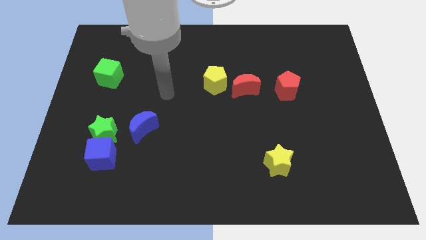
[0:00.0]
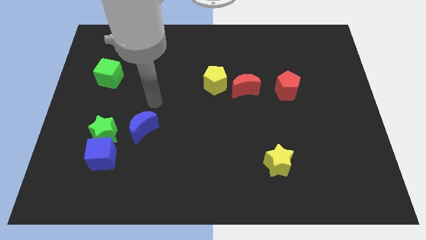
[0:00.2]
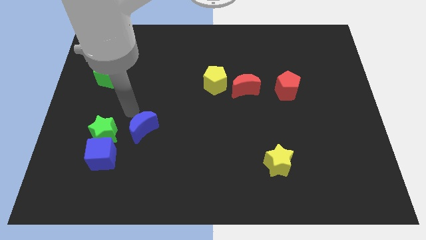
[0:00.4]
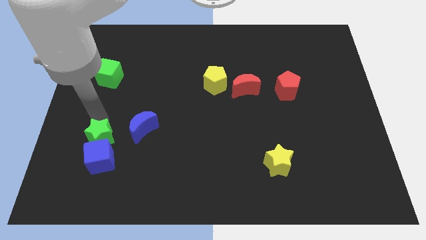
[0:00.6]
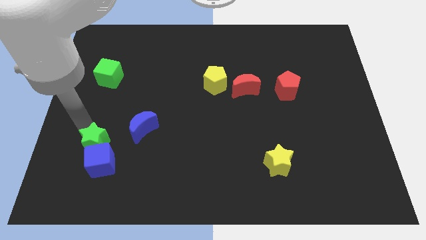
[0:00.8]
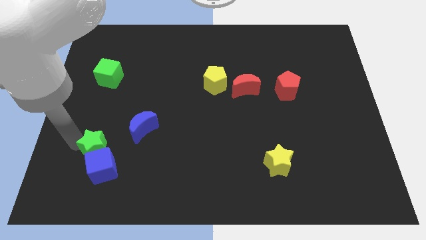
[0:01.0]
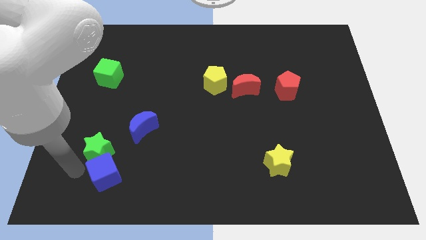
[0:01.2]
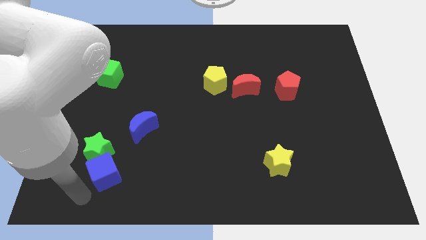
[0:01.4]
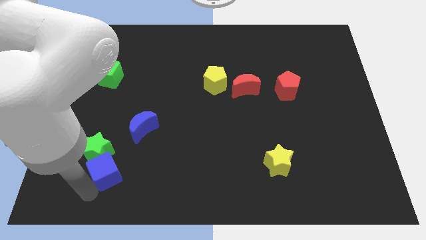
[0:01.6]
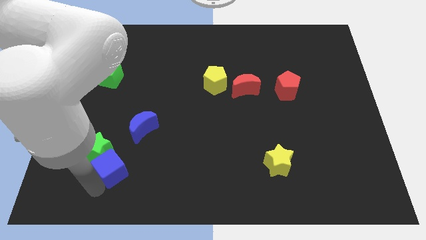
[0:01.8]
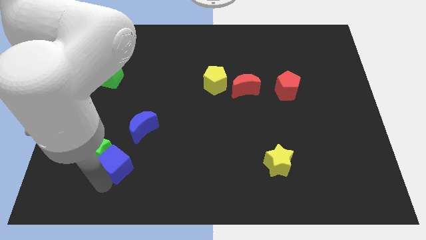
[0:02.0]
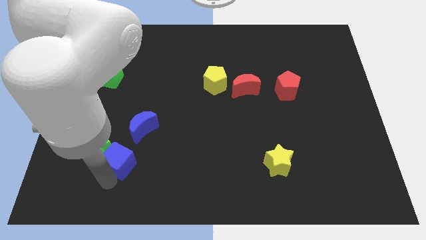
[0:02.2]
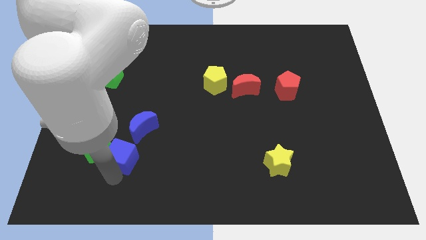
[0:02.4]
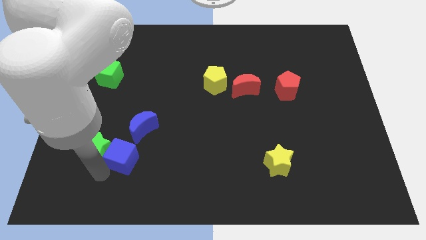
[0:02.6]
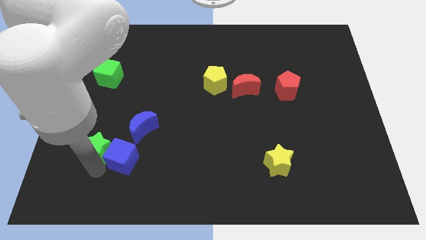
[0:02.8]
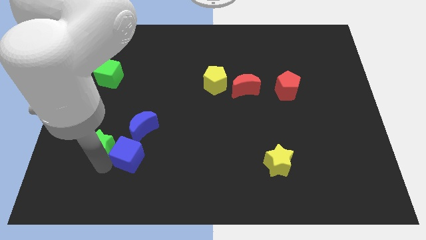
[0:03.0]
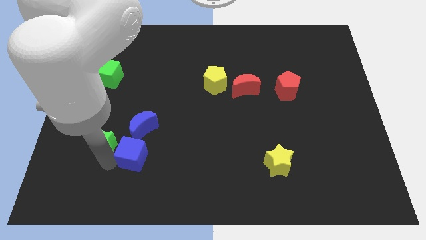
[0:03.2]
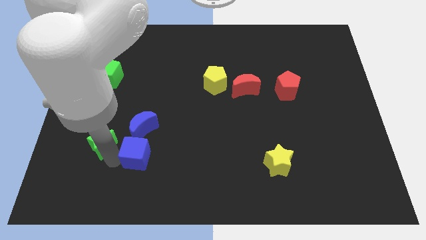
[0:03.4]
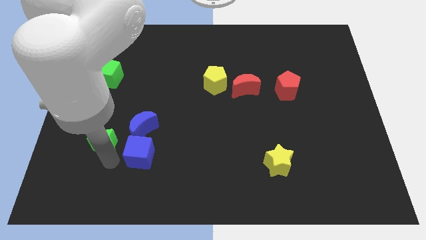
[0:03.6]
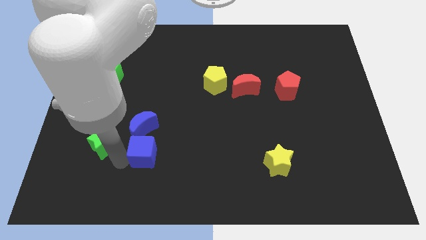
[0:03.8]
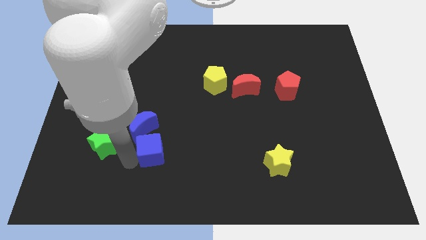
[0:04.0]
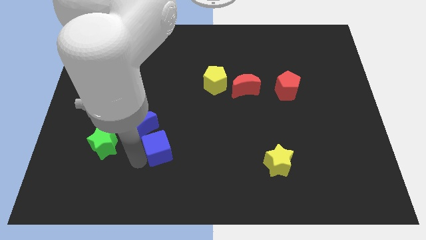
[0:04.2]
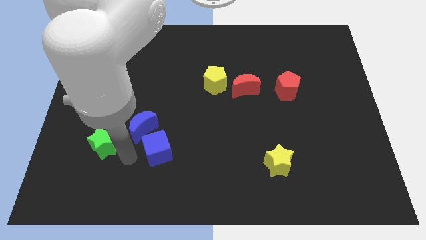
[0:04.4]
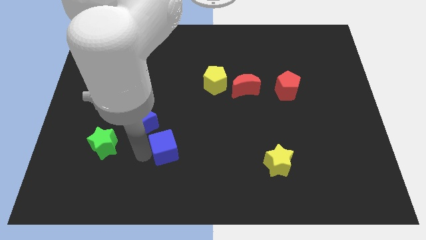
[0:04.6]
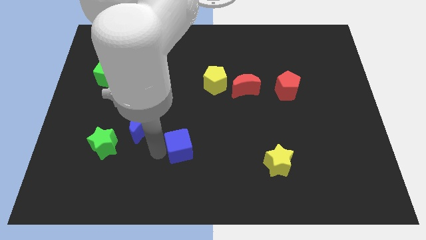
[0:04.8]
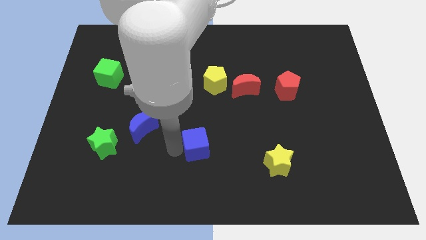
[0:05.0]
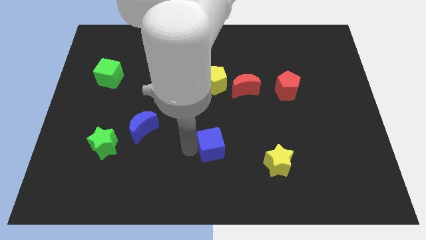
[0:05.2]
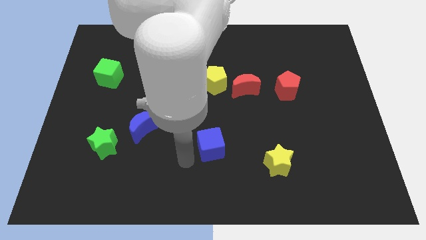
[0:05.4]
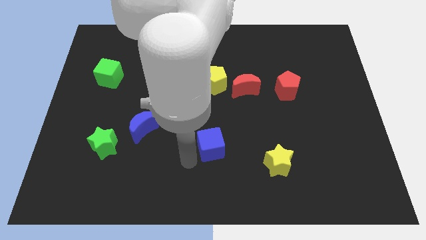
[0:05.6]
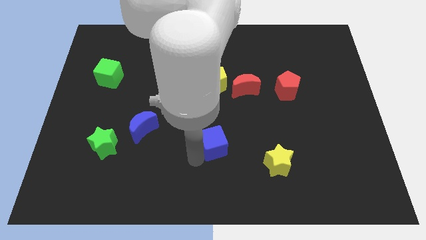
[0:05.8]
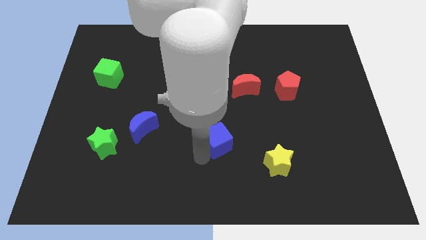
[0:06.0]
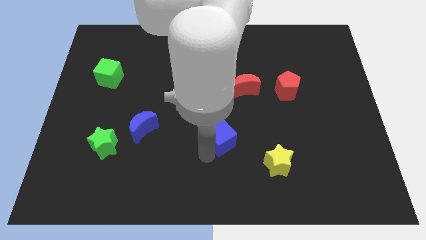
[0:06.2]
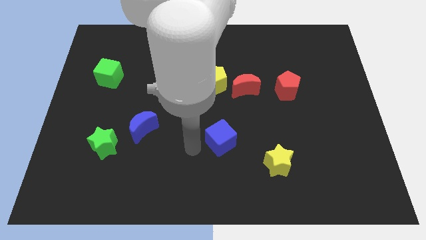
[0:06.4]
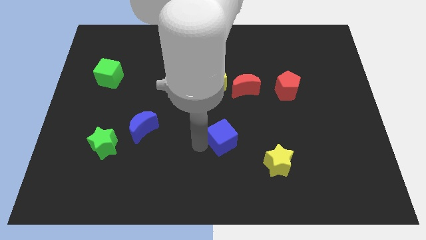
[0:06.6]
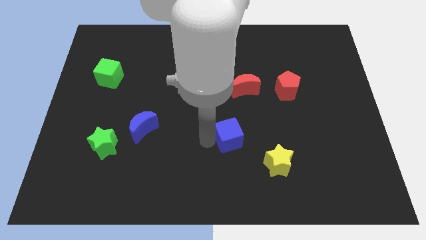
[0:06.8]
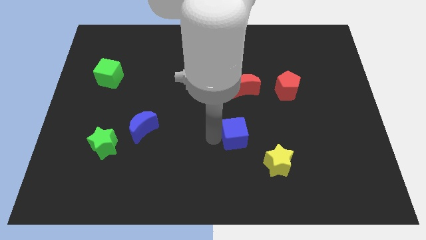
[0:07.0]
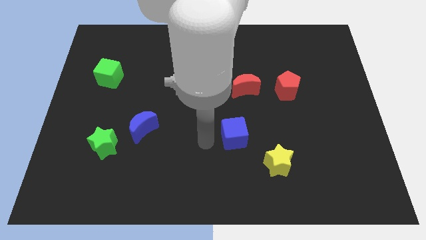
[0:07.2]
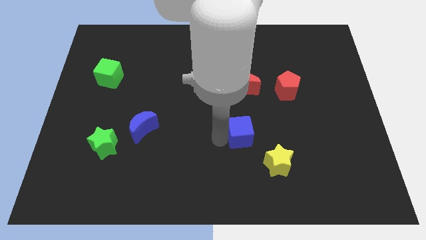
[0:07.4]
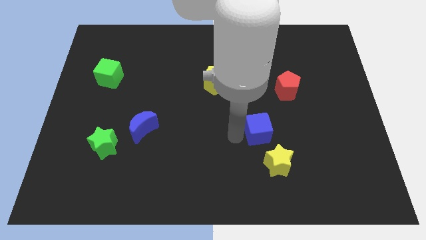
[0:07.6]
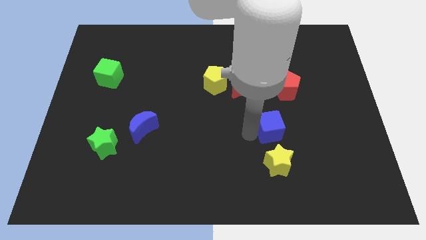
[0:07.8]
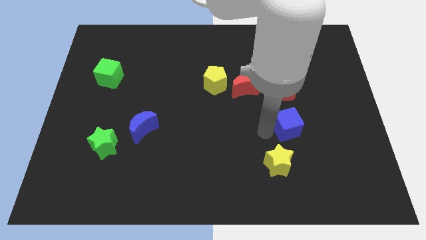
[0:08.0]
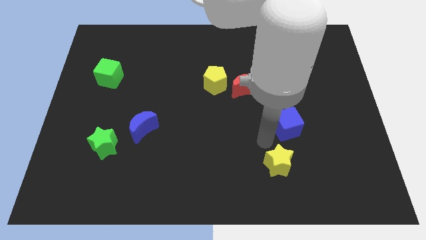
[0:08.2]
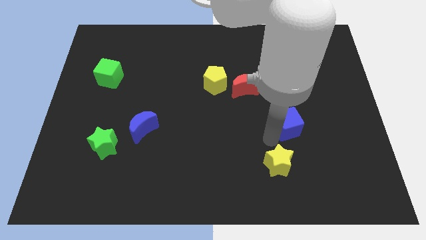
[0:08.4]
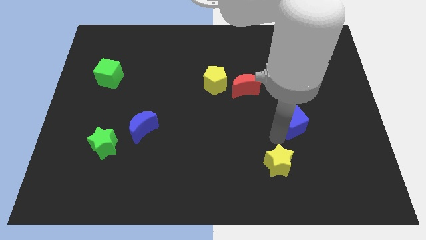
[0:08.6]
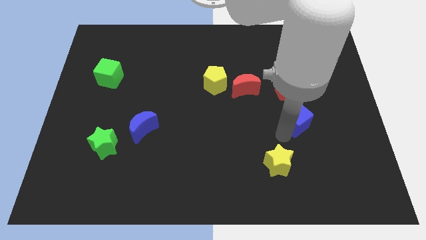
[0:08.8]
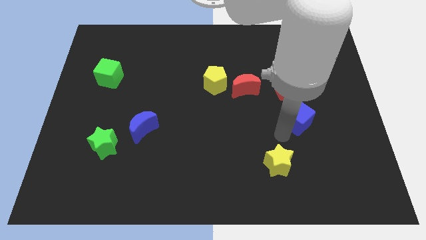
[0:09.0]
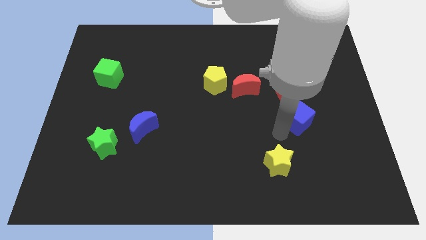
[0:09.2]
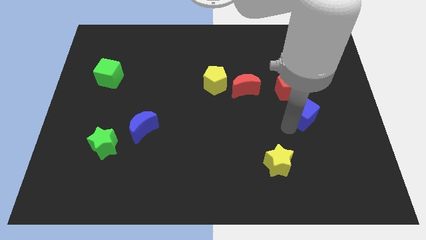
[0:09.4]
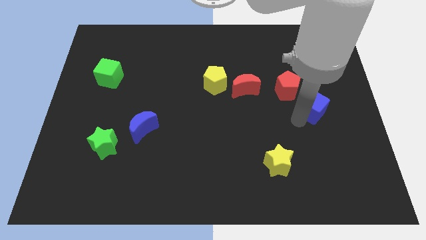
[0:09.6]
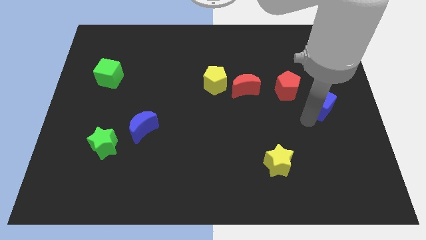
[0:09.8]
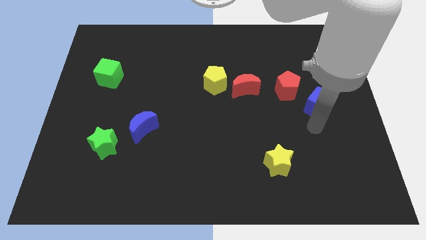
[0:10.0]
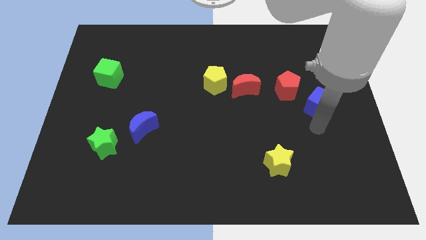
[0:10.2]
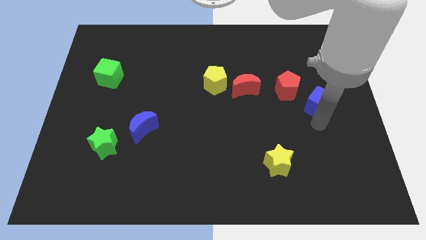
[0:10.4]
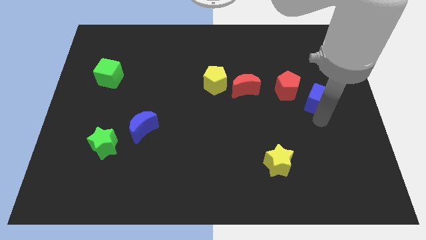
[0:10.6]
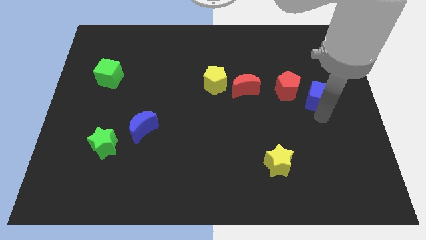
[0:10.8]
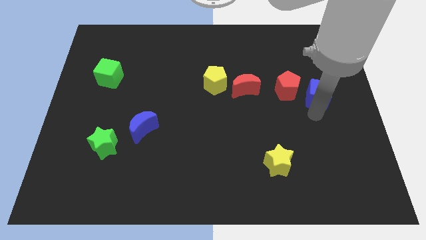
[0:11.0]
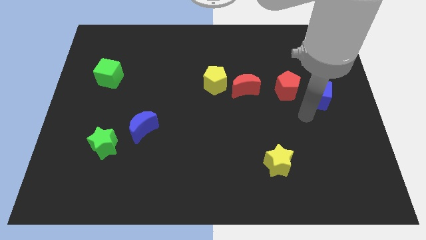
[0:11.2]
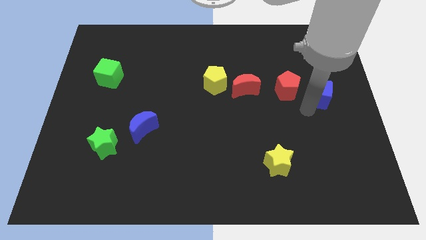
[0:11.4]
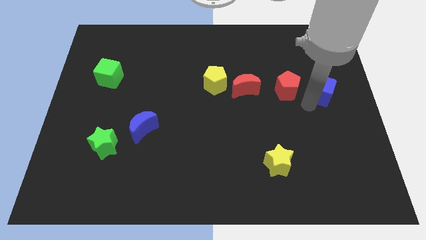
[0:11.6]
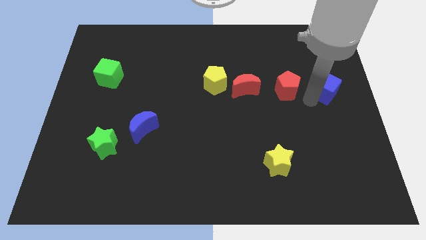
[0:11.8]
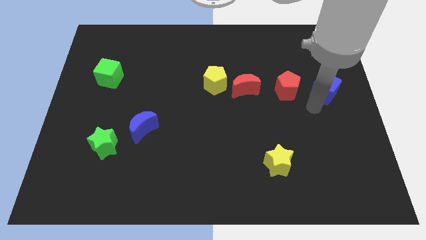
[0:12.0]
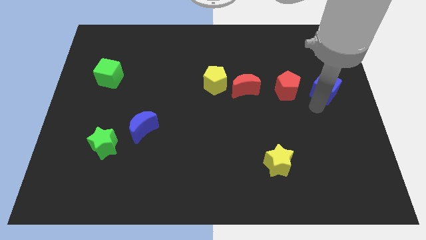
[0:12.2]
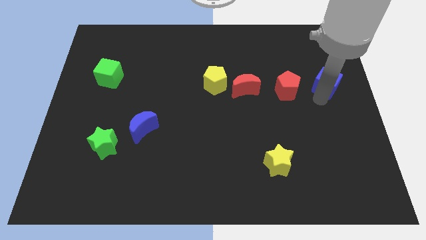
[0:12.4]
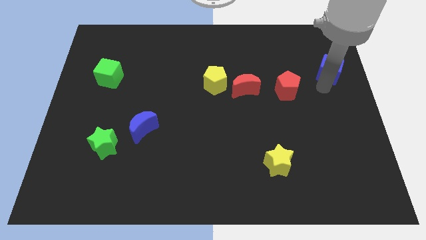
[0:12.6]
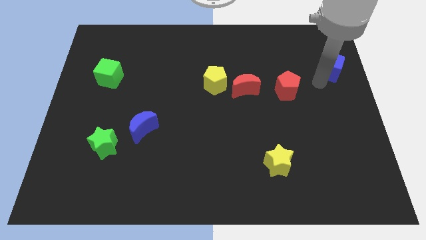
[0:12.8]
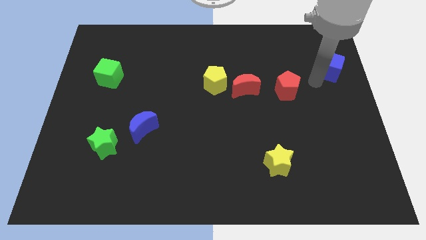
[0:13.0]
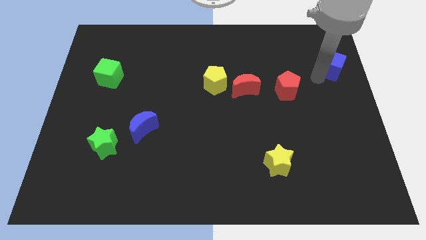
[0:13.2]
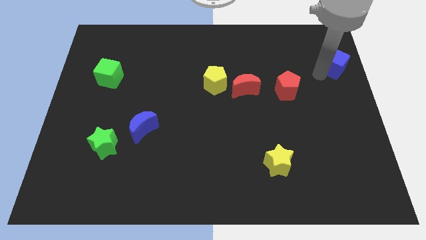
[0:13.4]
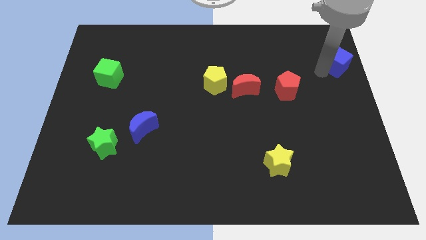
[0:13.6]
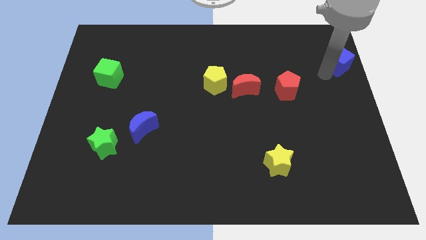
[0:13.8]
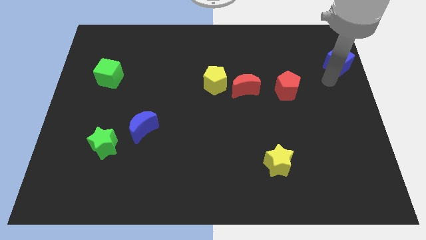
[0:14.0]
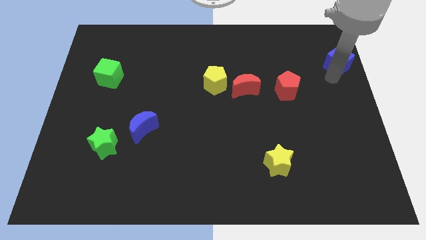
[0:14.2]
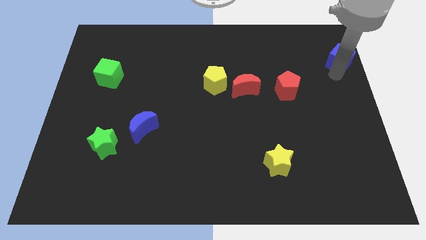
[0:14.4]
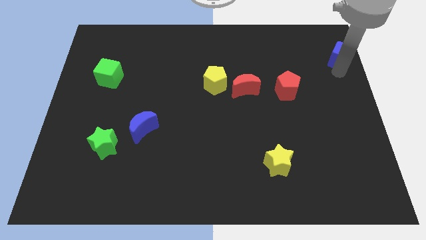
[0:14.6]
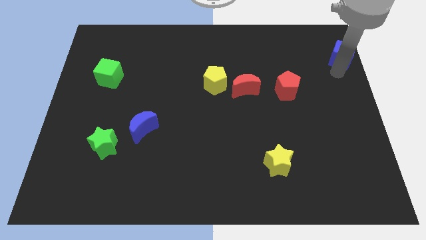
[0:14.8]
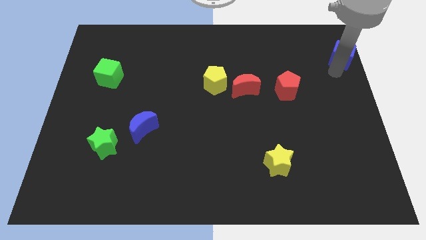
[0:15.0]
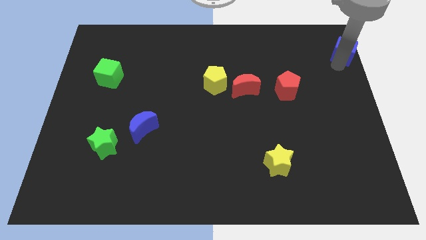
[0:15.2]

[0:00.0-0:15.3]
slide the blue cube to the top right of the board
